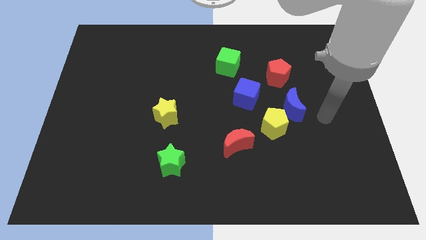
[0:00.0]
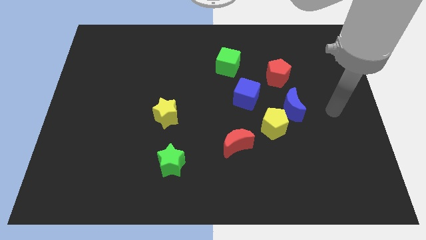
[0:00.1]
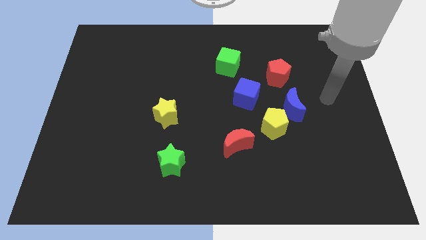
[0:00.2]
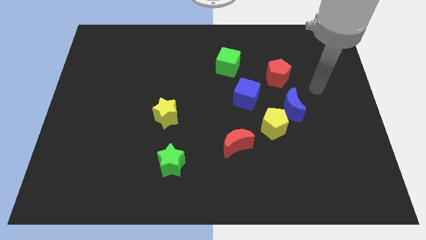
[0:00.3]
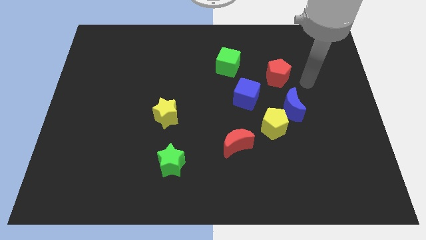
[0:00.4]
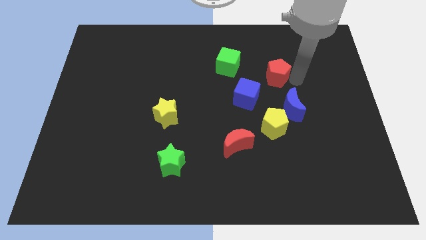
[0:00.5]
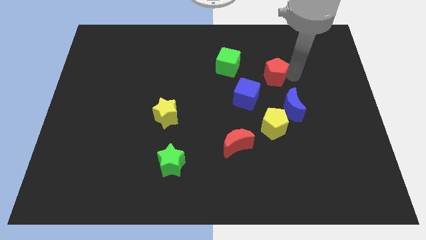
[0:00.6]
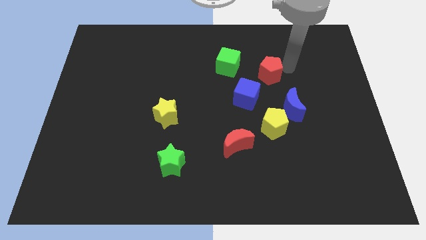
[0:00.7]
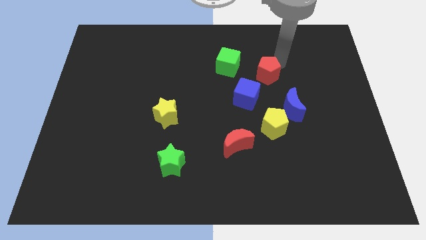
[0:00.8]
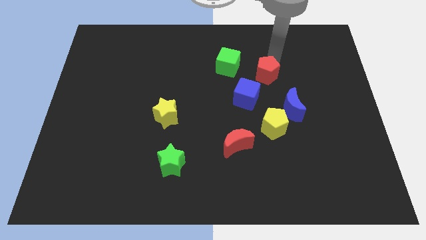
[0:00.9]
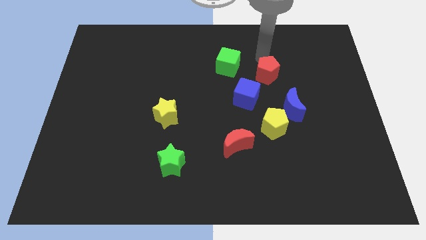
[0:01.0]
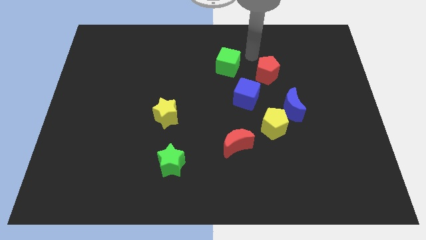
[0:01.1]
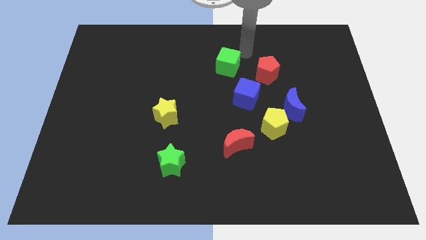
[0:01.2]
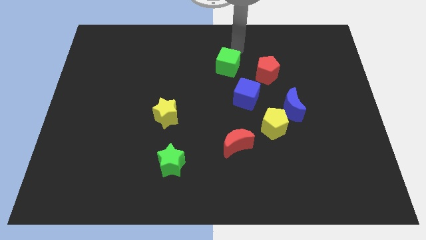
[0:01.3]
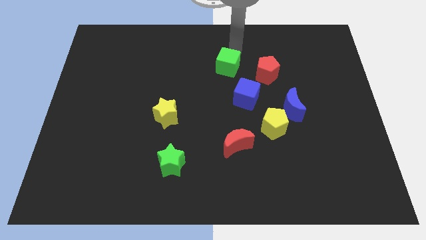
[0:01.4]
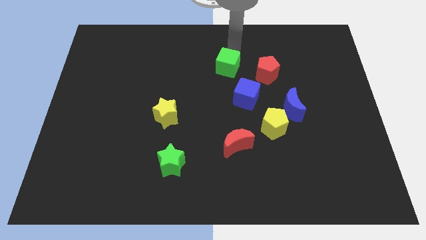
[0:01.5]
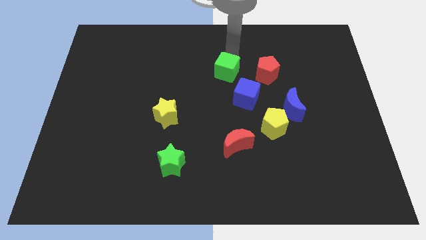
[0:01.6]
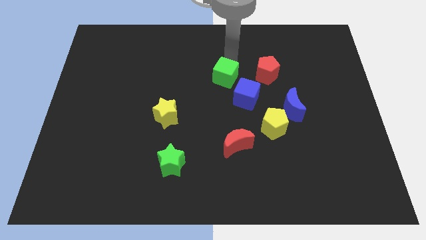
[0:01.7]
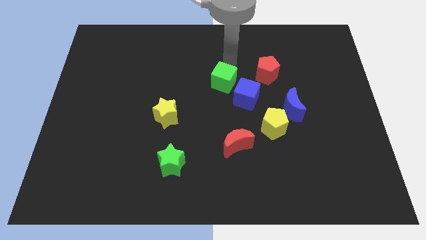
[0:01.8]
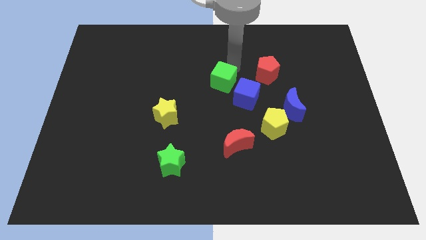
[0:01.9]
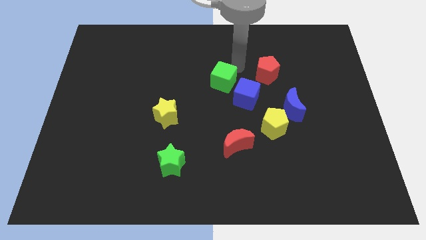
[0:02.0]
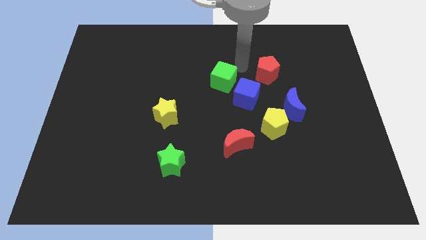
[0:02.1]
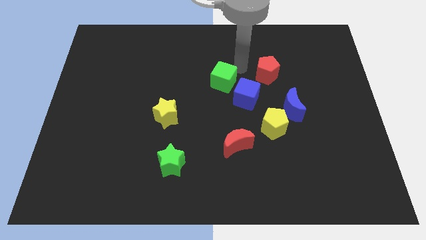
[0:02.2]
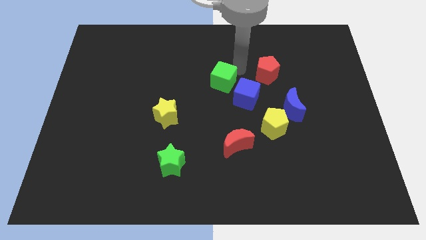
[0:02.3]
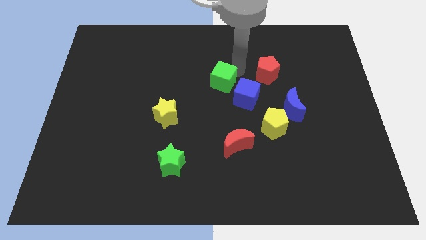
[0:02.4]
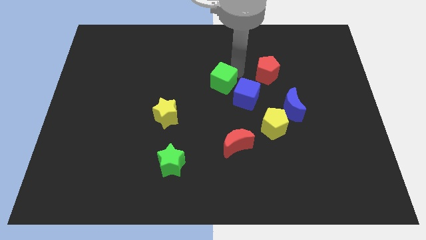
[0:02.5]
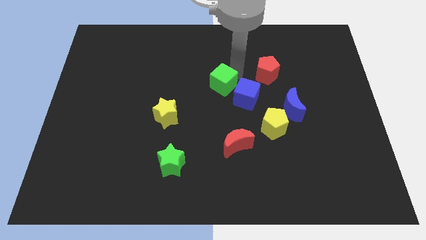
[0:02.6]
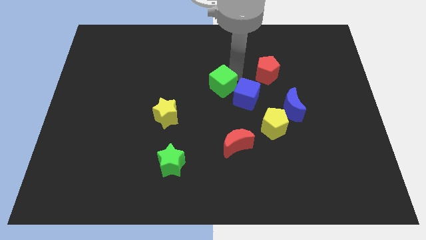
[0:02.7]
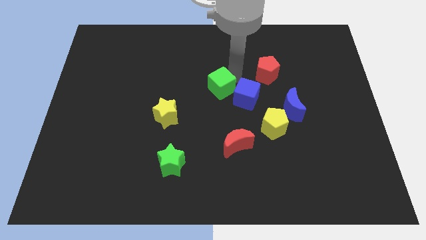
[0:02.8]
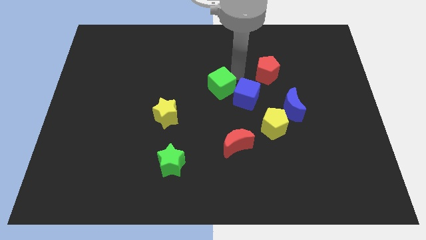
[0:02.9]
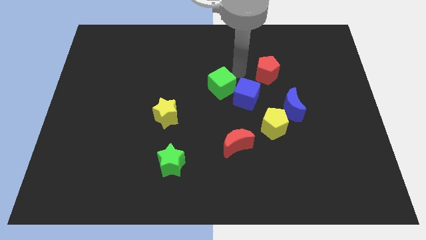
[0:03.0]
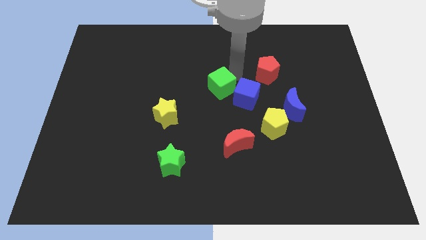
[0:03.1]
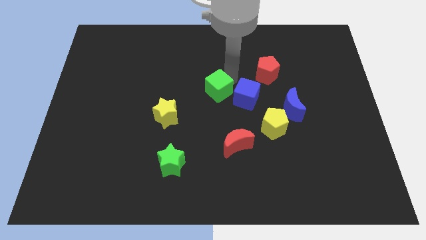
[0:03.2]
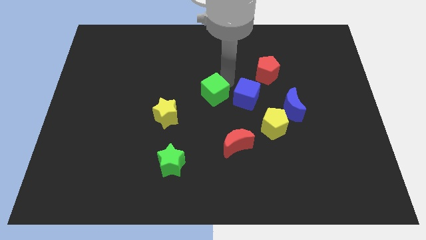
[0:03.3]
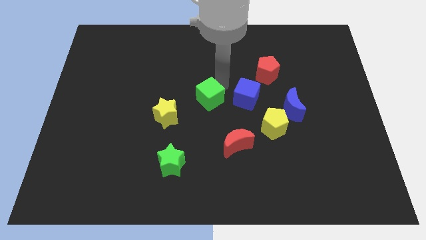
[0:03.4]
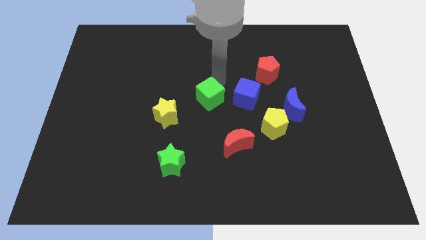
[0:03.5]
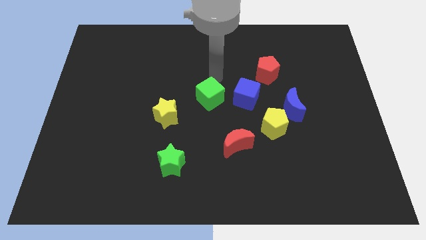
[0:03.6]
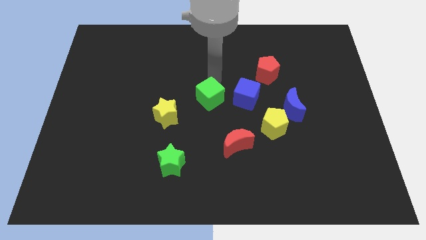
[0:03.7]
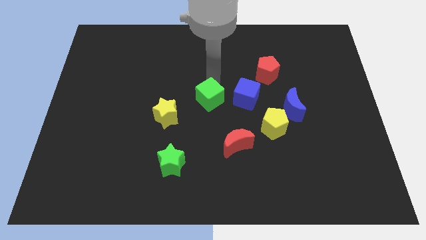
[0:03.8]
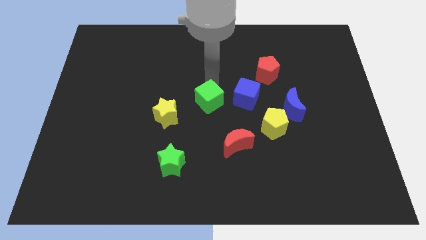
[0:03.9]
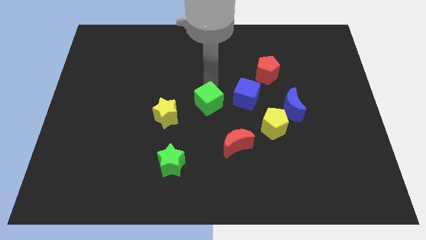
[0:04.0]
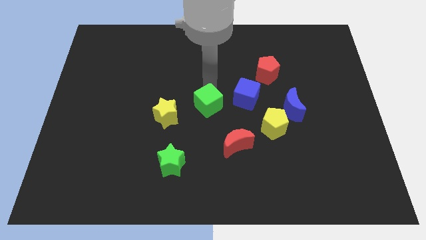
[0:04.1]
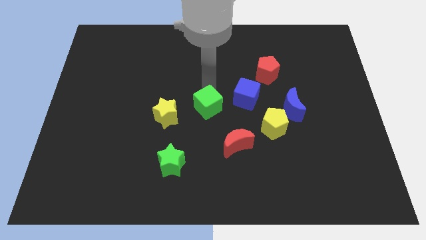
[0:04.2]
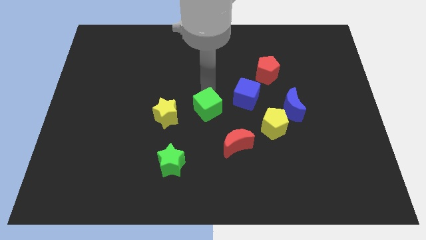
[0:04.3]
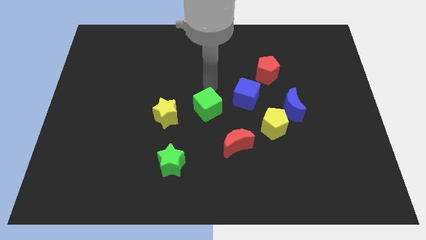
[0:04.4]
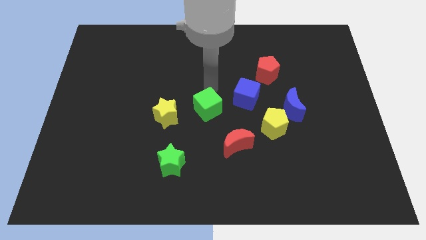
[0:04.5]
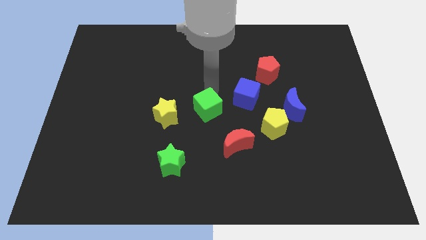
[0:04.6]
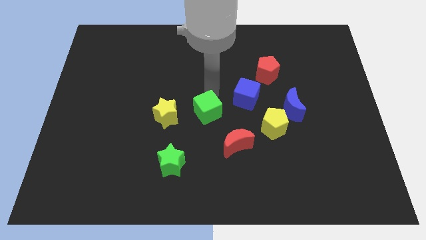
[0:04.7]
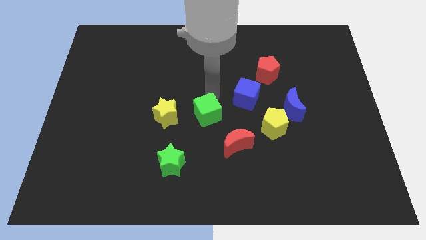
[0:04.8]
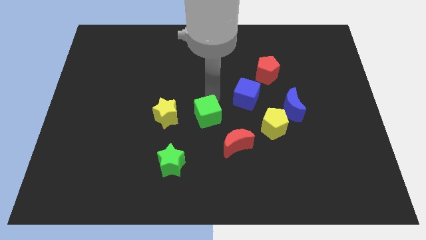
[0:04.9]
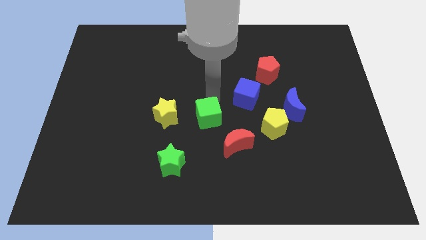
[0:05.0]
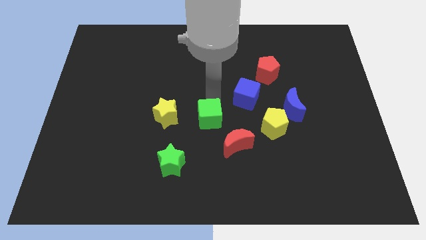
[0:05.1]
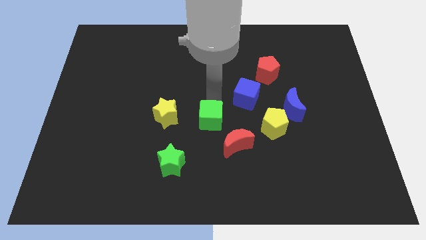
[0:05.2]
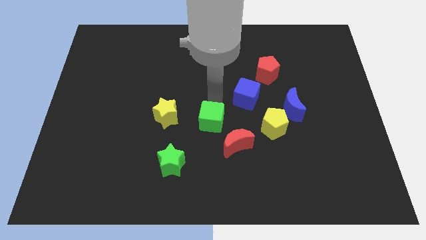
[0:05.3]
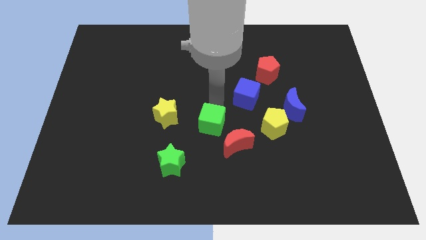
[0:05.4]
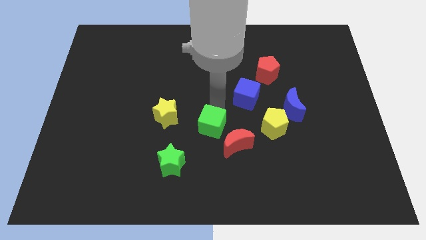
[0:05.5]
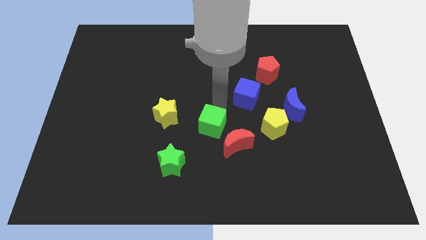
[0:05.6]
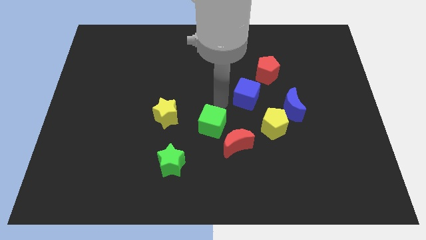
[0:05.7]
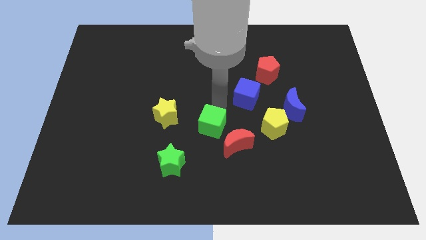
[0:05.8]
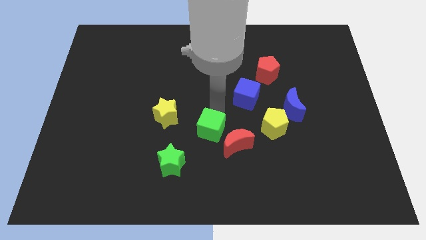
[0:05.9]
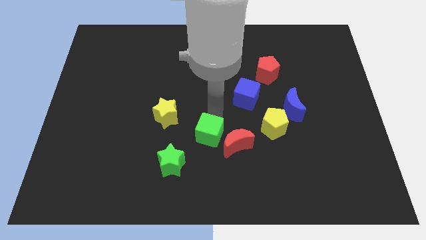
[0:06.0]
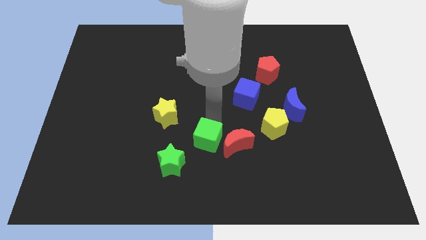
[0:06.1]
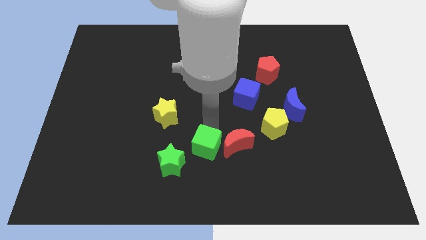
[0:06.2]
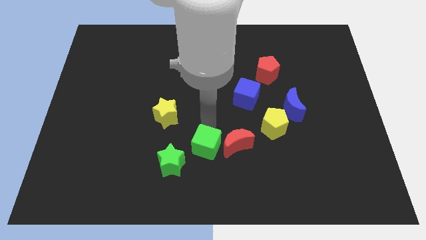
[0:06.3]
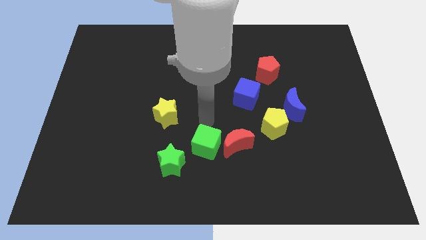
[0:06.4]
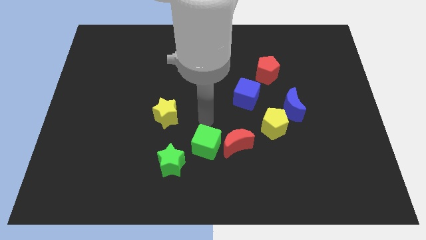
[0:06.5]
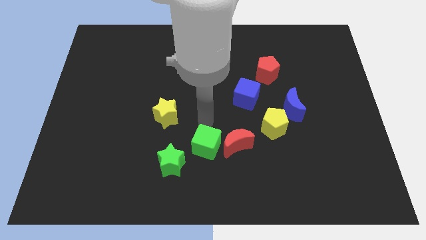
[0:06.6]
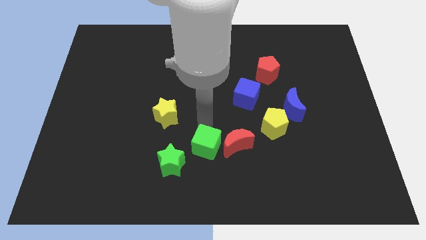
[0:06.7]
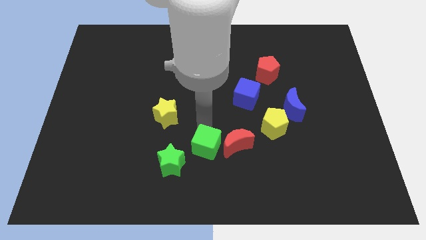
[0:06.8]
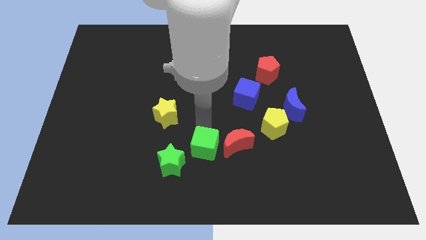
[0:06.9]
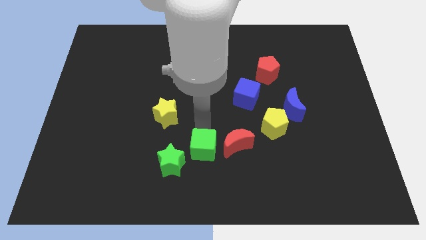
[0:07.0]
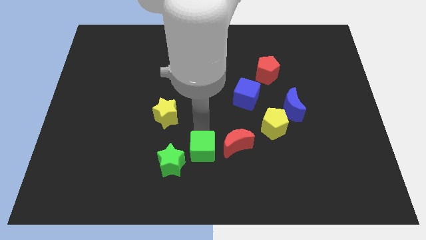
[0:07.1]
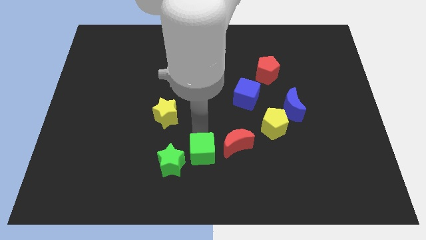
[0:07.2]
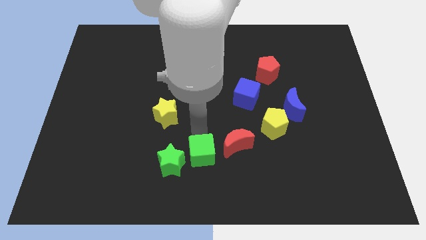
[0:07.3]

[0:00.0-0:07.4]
push the green cube to the bottom side
